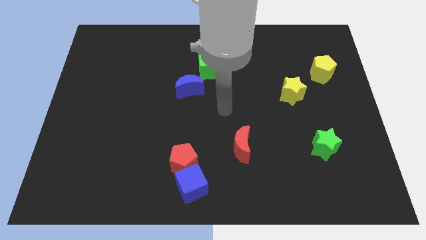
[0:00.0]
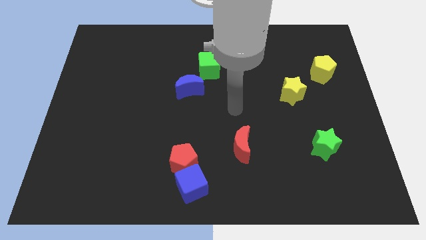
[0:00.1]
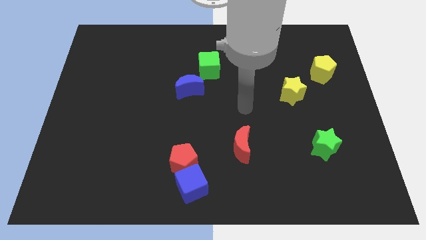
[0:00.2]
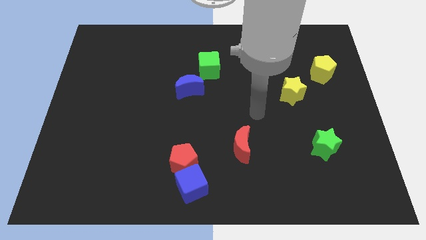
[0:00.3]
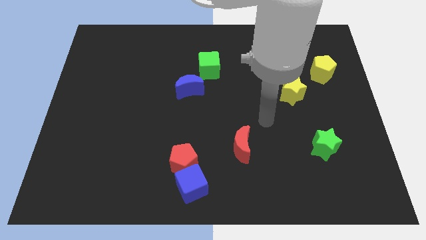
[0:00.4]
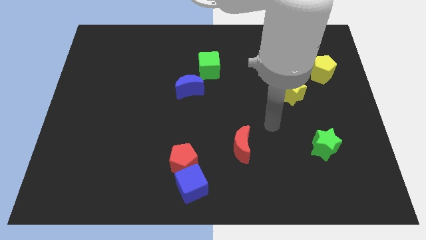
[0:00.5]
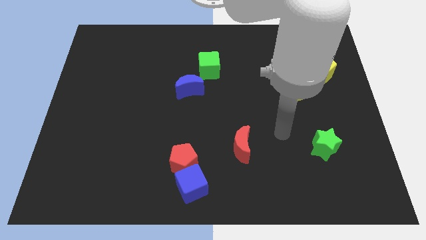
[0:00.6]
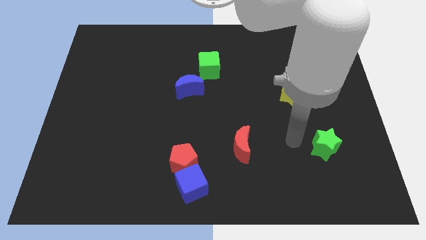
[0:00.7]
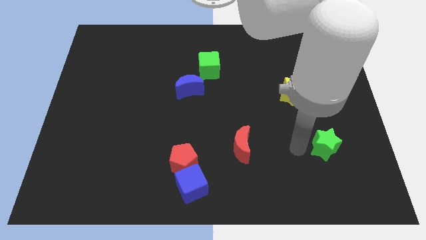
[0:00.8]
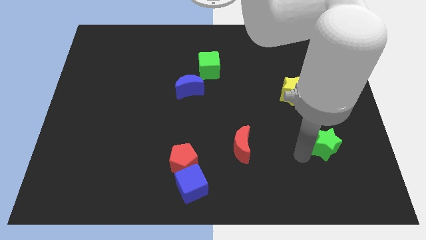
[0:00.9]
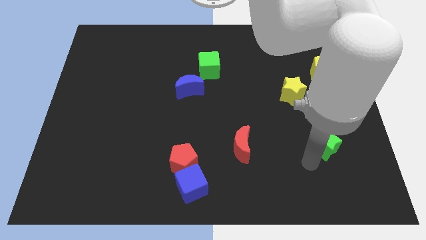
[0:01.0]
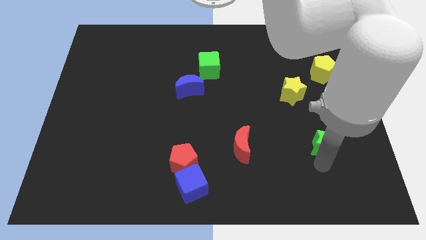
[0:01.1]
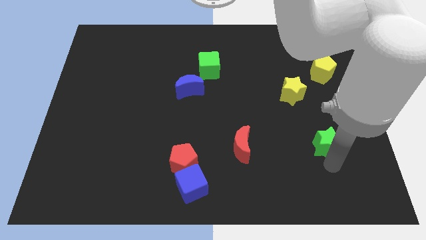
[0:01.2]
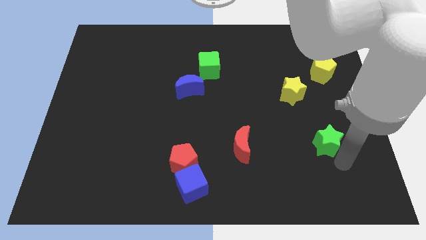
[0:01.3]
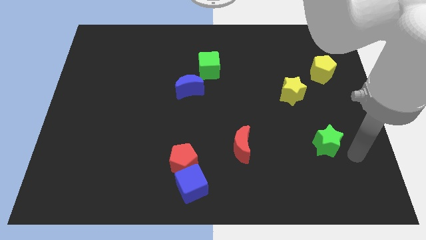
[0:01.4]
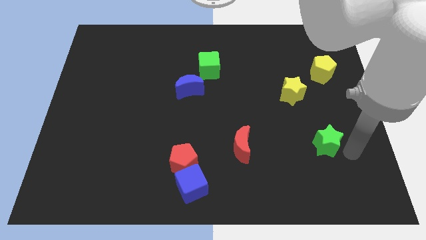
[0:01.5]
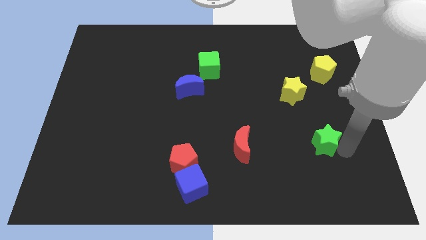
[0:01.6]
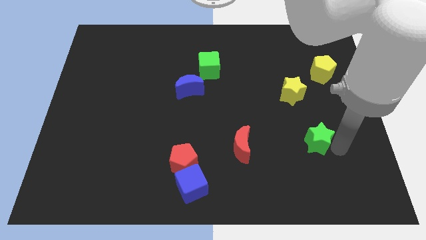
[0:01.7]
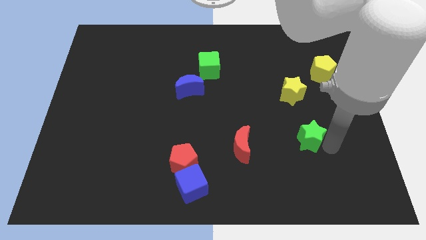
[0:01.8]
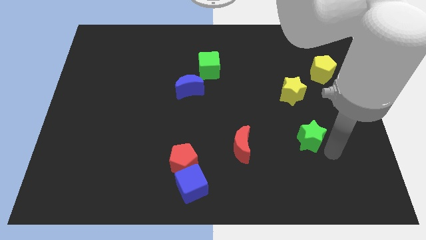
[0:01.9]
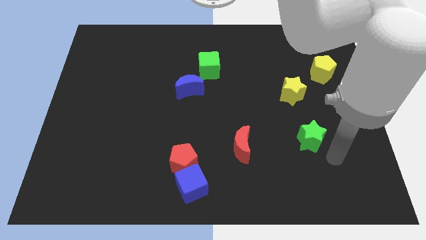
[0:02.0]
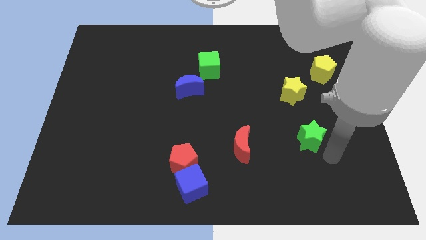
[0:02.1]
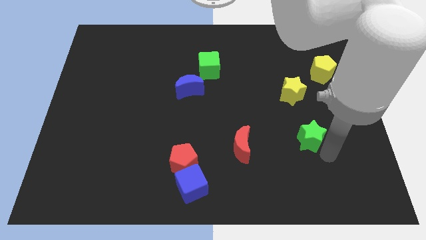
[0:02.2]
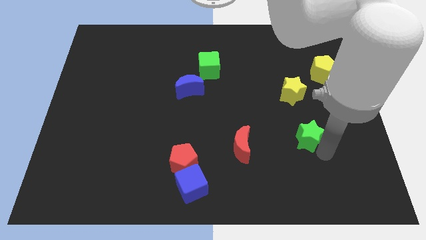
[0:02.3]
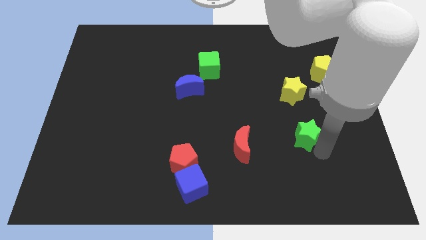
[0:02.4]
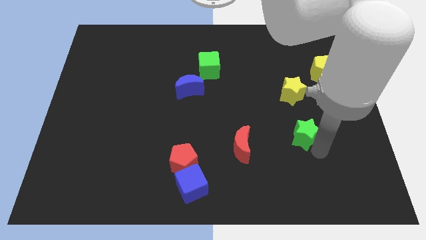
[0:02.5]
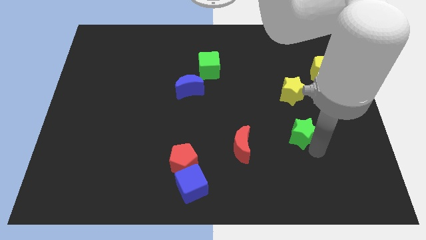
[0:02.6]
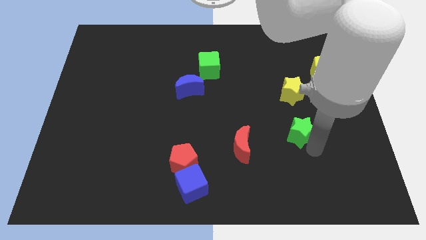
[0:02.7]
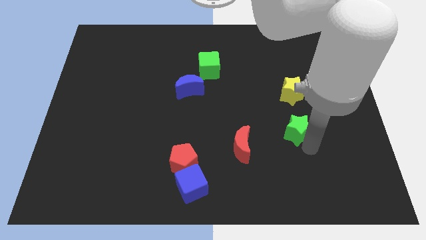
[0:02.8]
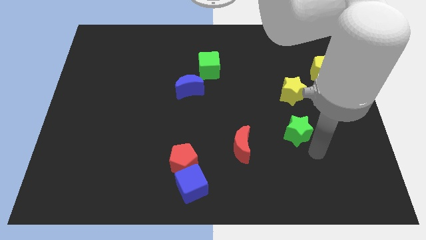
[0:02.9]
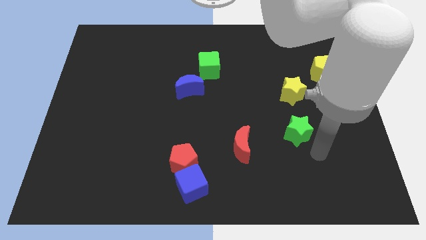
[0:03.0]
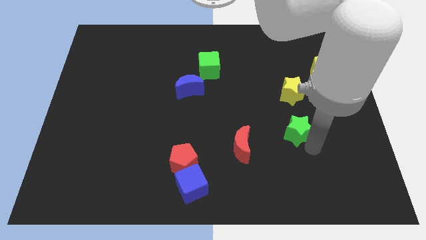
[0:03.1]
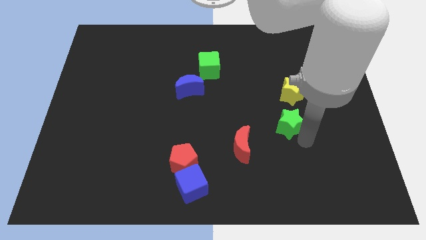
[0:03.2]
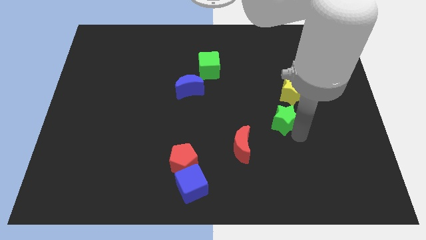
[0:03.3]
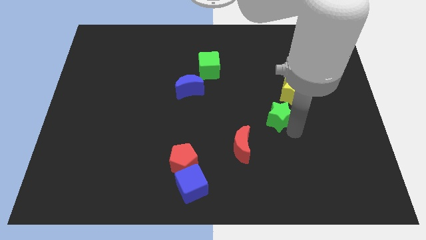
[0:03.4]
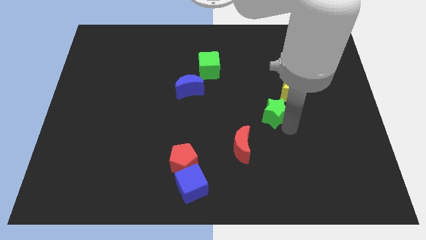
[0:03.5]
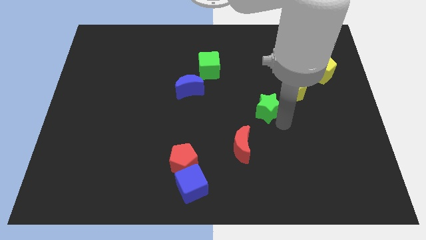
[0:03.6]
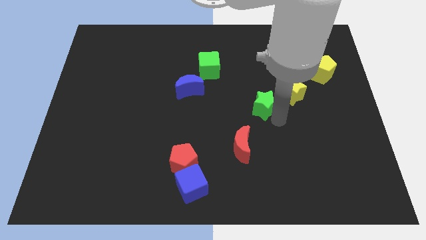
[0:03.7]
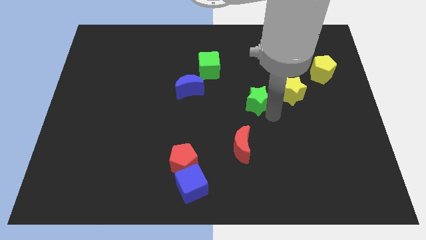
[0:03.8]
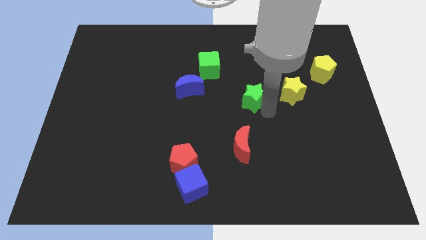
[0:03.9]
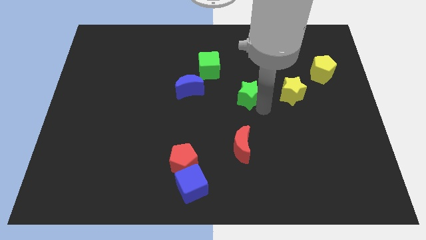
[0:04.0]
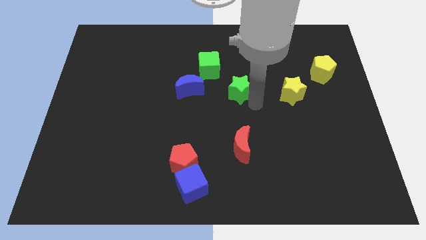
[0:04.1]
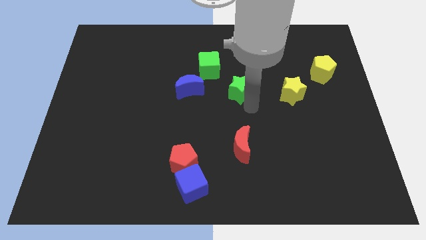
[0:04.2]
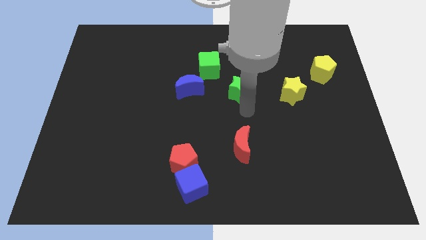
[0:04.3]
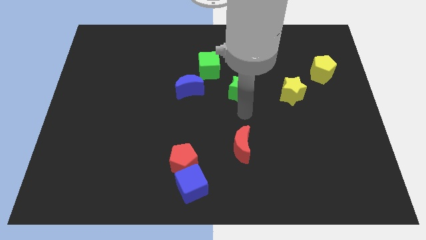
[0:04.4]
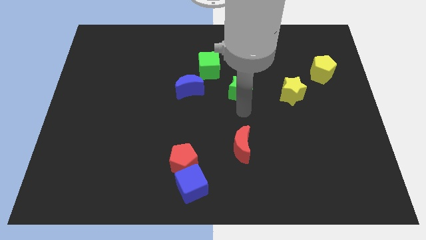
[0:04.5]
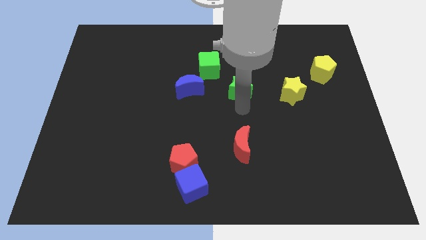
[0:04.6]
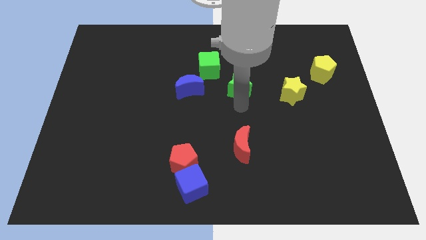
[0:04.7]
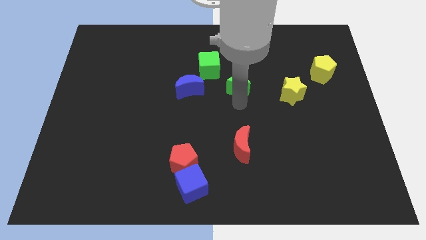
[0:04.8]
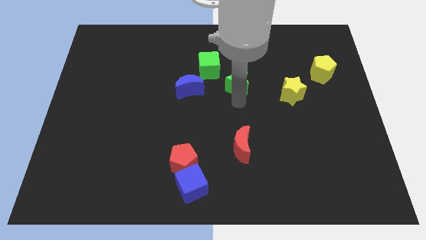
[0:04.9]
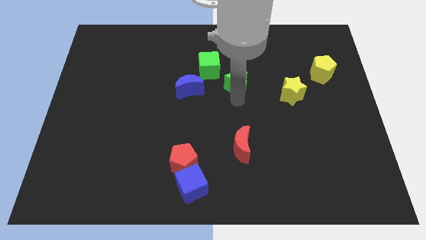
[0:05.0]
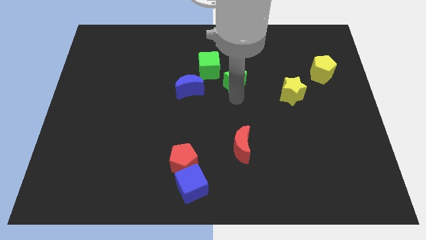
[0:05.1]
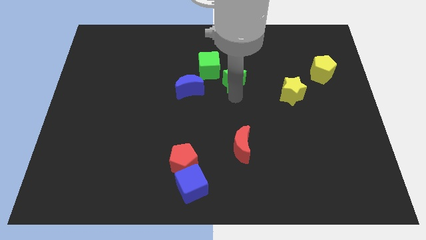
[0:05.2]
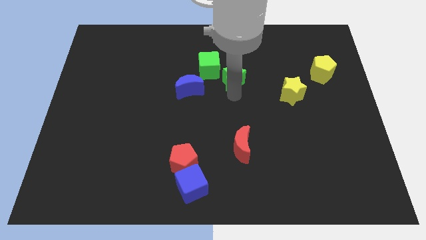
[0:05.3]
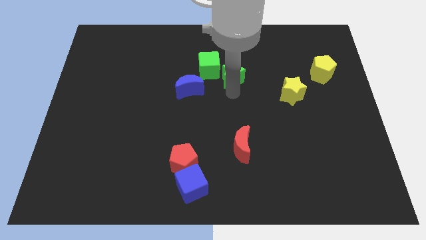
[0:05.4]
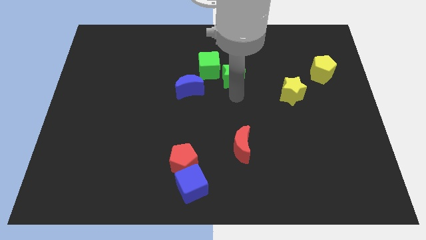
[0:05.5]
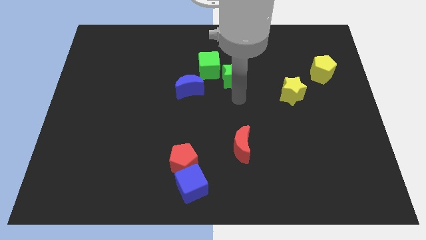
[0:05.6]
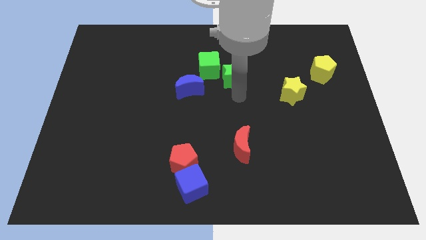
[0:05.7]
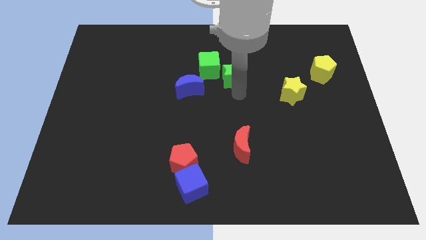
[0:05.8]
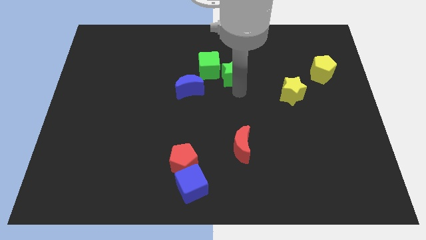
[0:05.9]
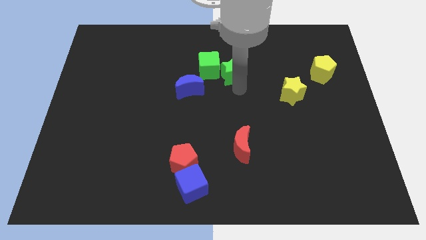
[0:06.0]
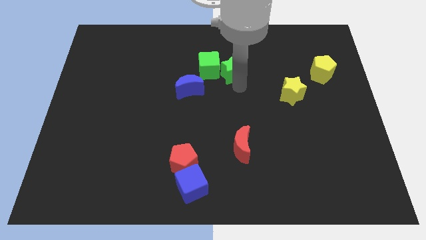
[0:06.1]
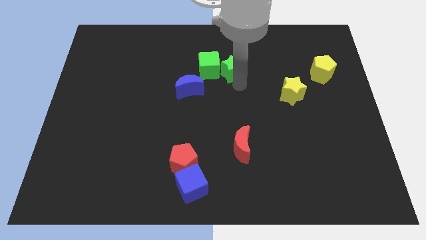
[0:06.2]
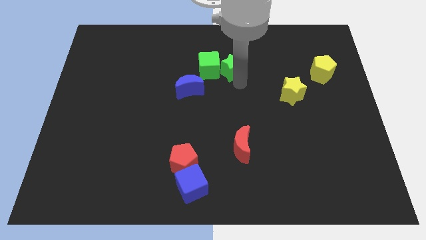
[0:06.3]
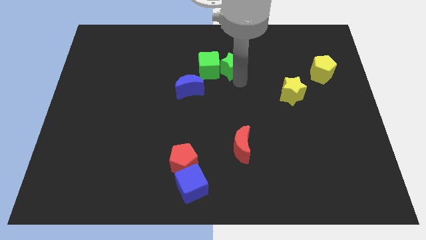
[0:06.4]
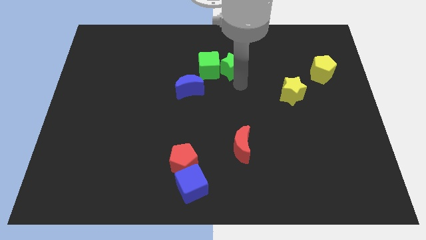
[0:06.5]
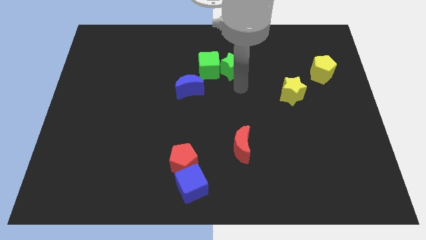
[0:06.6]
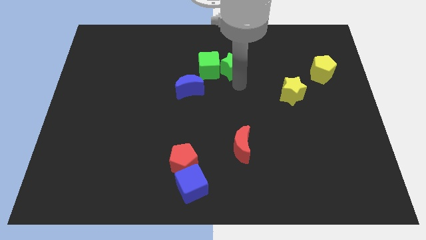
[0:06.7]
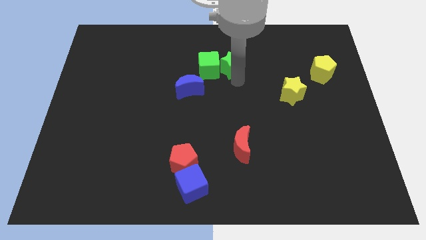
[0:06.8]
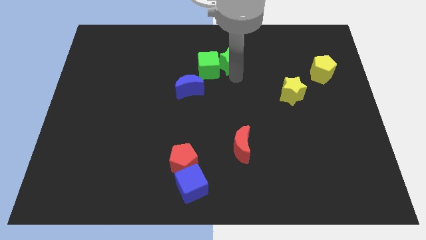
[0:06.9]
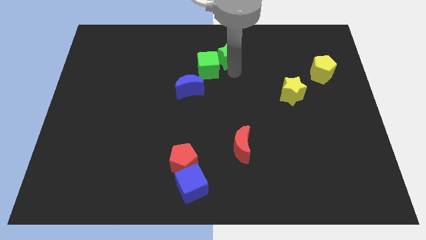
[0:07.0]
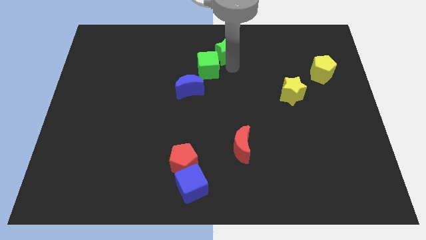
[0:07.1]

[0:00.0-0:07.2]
put the green star to the top
